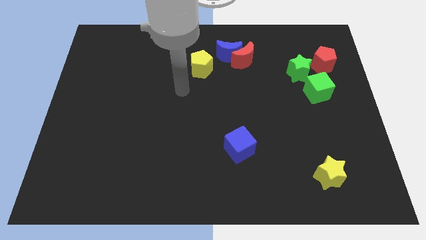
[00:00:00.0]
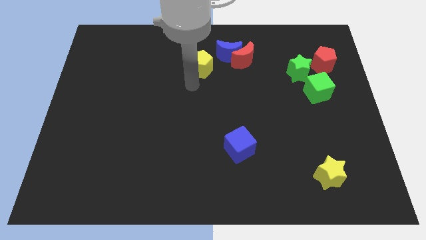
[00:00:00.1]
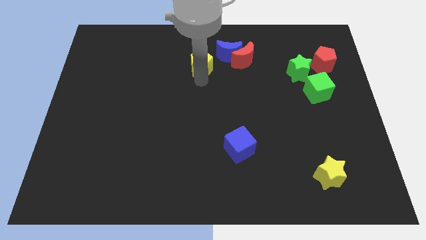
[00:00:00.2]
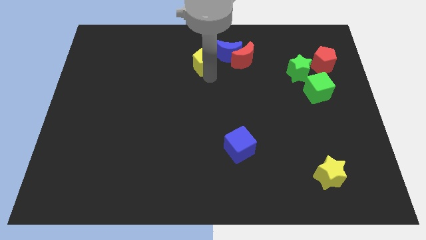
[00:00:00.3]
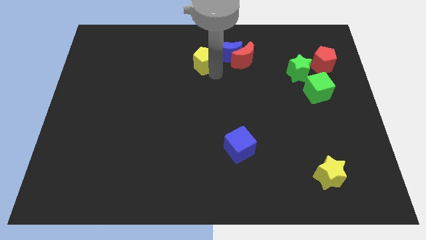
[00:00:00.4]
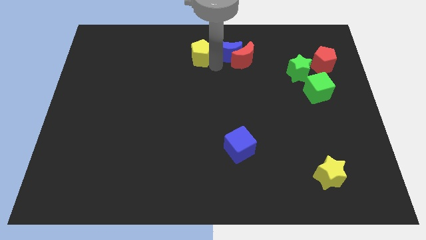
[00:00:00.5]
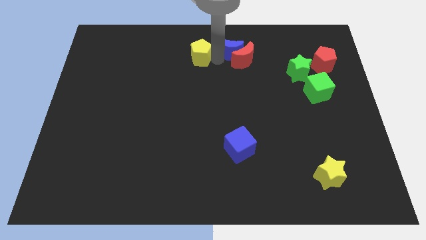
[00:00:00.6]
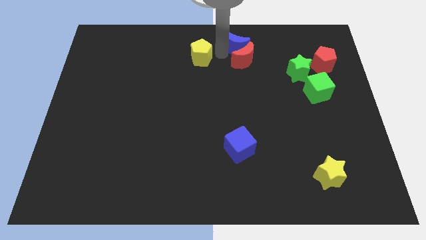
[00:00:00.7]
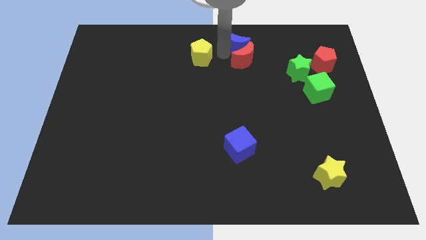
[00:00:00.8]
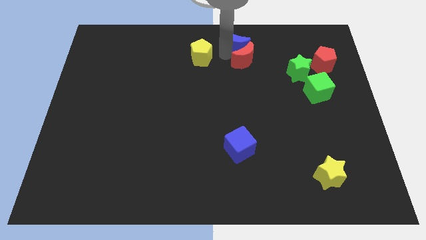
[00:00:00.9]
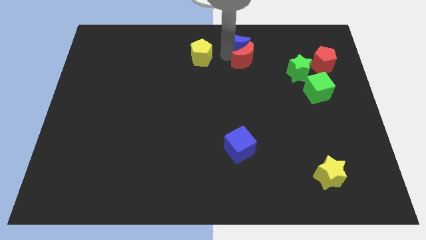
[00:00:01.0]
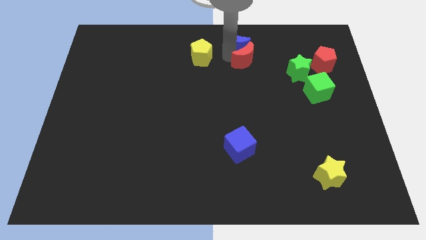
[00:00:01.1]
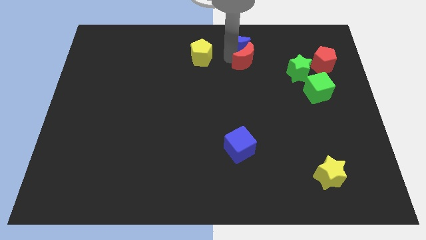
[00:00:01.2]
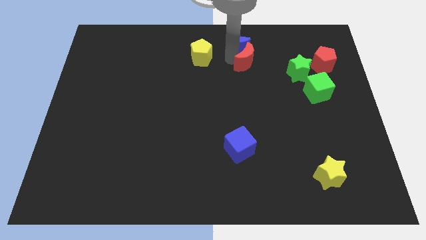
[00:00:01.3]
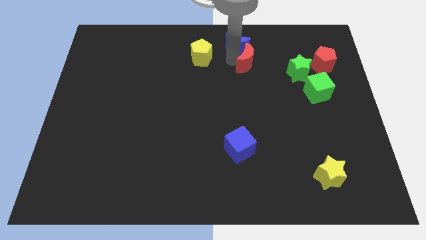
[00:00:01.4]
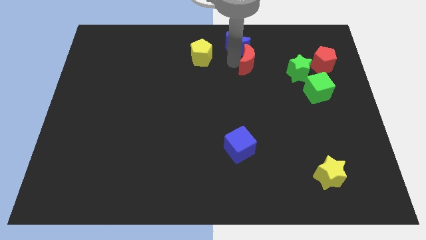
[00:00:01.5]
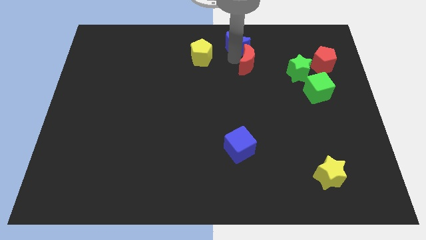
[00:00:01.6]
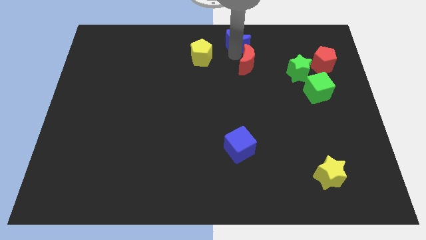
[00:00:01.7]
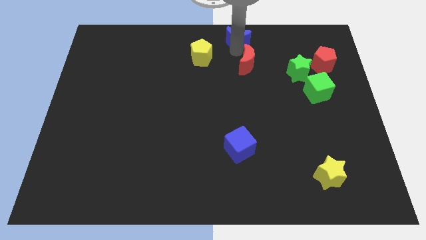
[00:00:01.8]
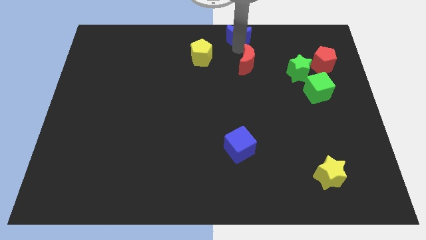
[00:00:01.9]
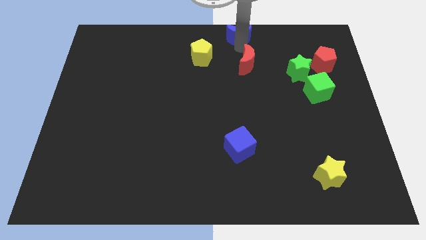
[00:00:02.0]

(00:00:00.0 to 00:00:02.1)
separate the red moon from the blue moon

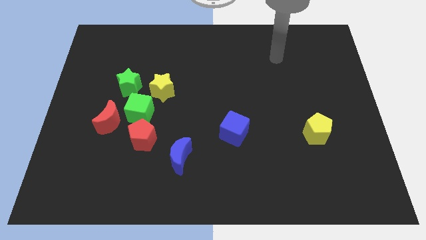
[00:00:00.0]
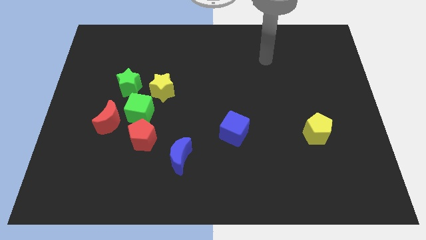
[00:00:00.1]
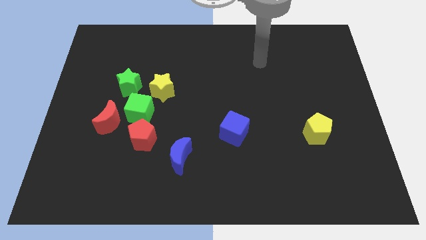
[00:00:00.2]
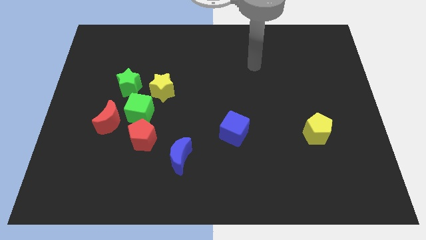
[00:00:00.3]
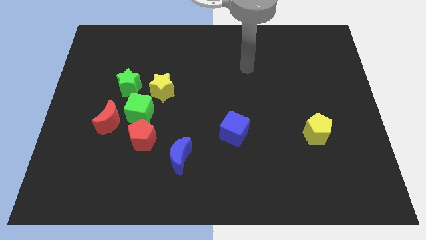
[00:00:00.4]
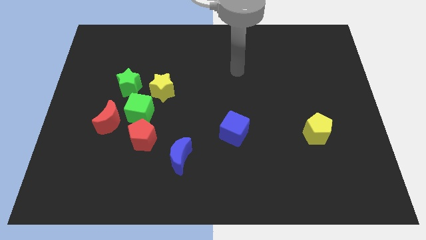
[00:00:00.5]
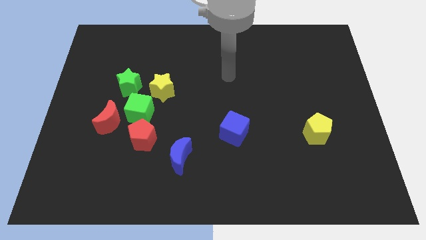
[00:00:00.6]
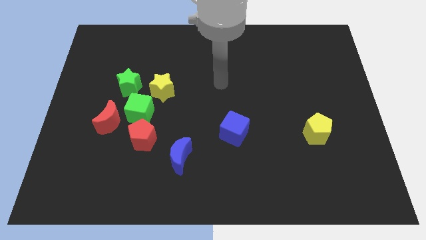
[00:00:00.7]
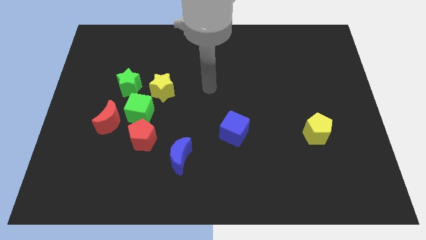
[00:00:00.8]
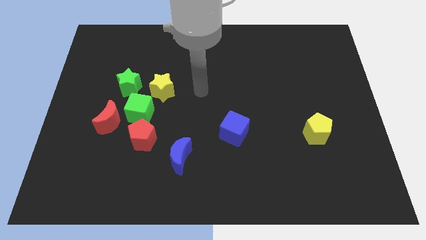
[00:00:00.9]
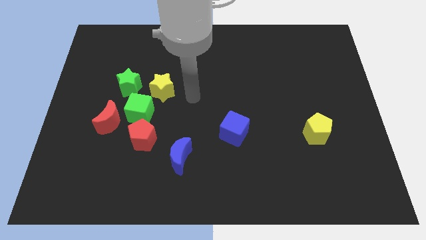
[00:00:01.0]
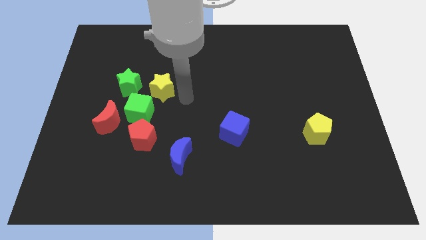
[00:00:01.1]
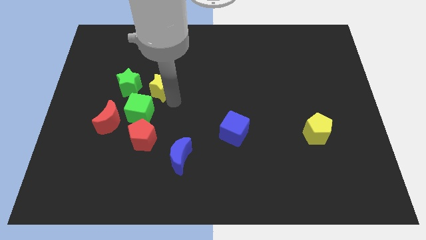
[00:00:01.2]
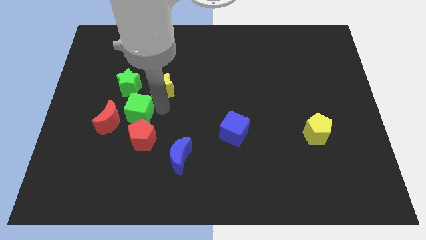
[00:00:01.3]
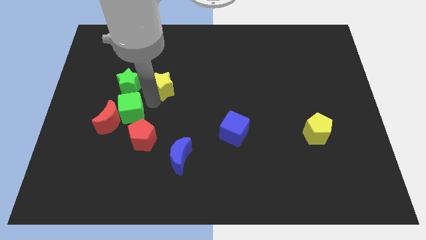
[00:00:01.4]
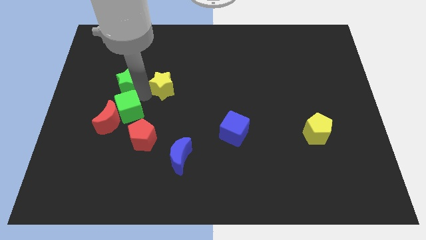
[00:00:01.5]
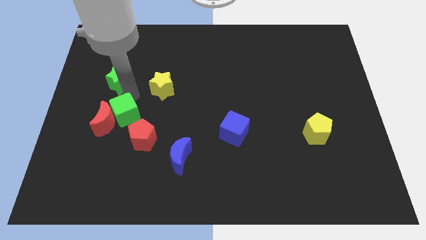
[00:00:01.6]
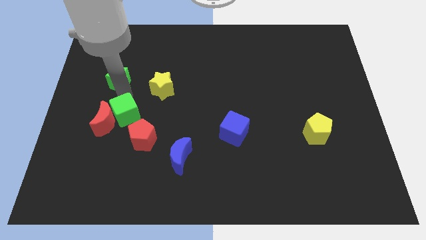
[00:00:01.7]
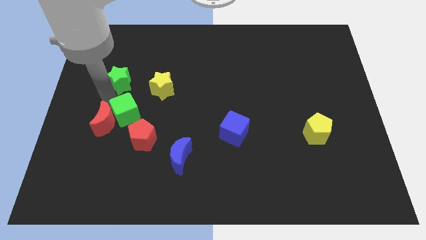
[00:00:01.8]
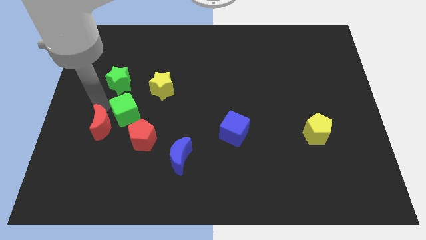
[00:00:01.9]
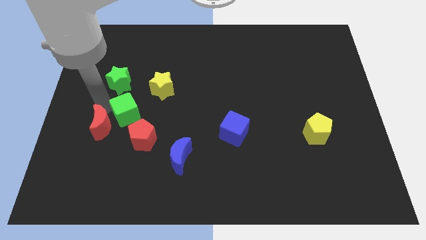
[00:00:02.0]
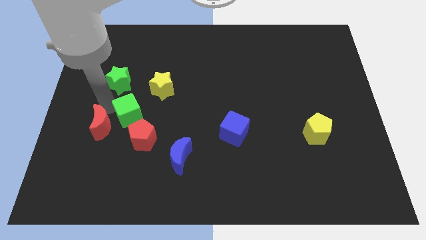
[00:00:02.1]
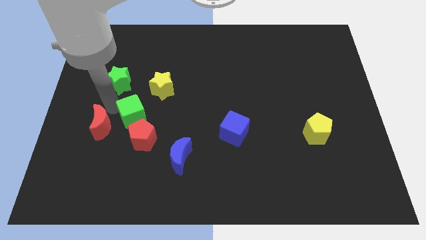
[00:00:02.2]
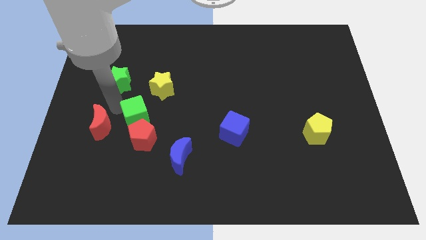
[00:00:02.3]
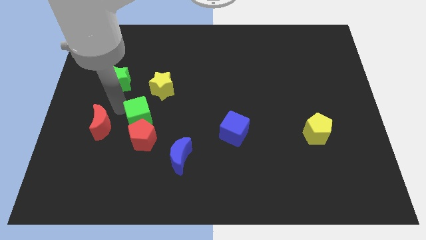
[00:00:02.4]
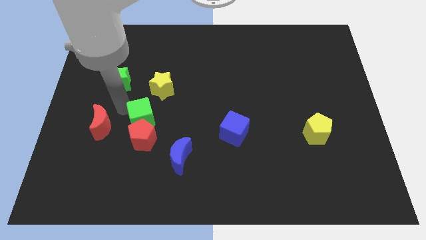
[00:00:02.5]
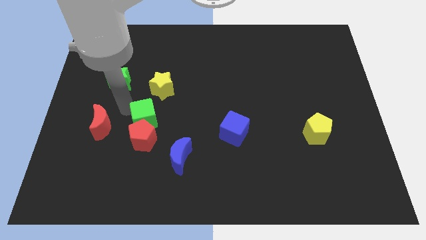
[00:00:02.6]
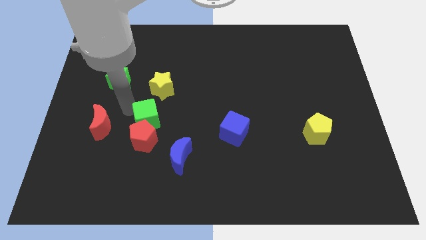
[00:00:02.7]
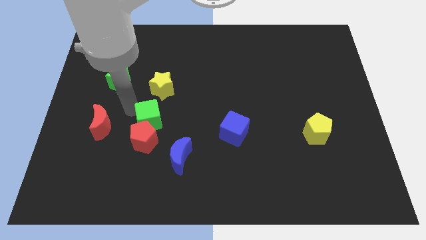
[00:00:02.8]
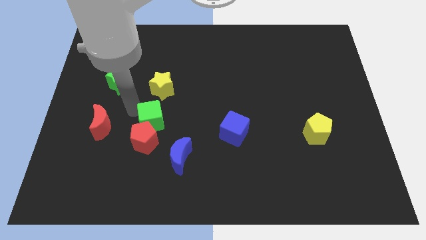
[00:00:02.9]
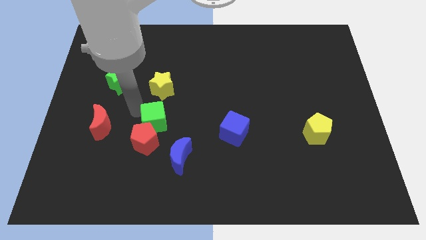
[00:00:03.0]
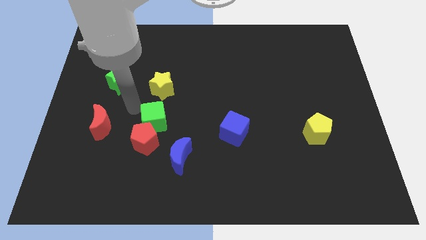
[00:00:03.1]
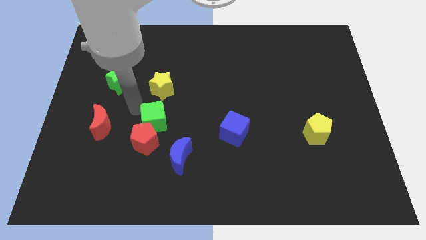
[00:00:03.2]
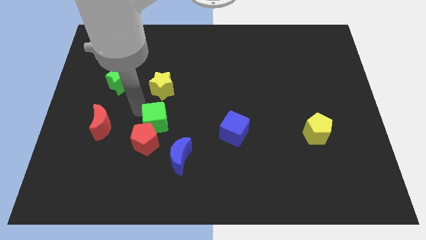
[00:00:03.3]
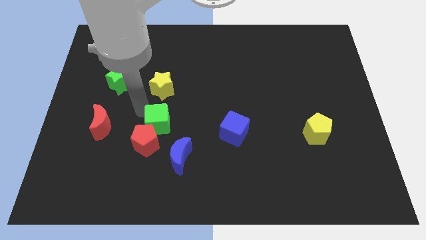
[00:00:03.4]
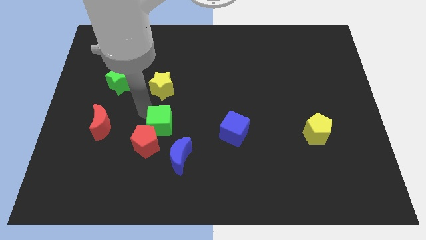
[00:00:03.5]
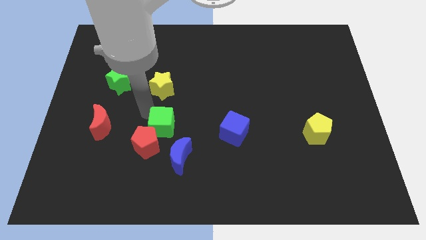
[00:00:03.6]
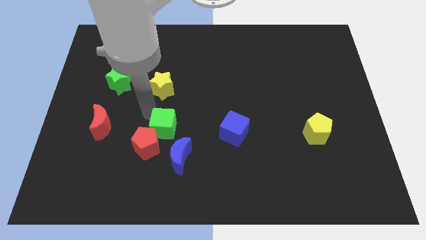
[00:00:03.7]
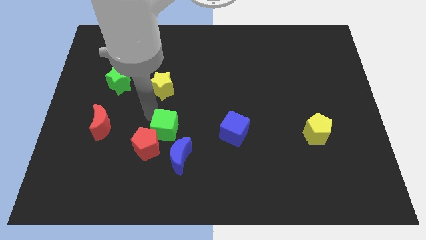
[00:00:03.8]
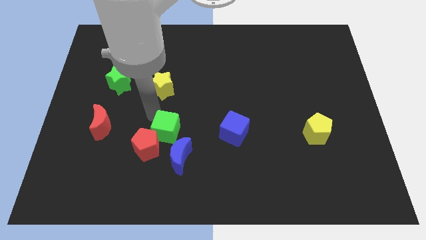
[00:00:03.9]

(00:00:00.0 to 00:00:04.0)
separate the green cube from the clump

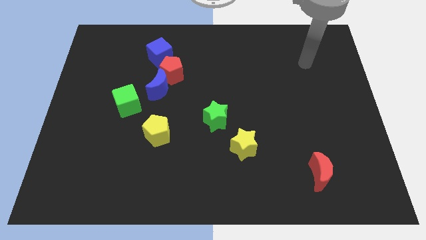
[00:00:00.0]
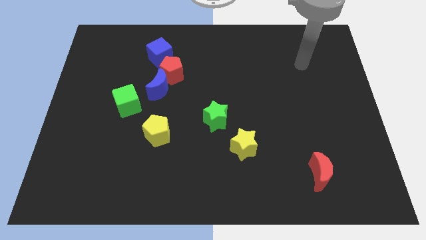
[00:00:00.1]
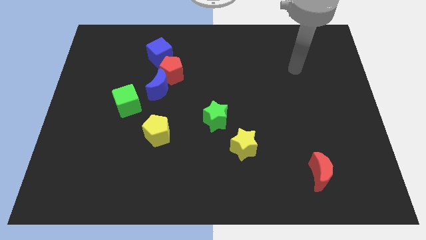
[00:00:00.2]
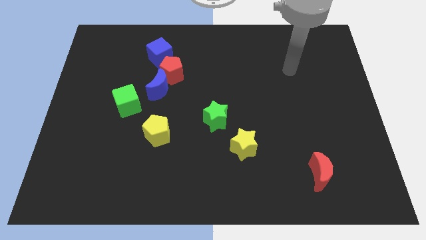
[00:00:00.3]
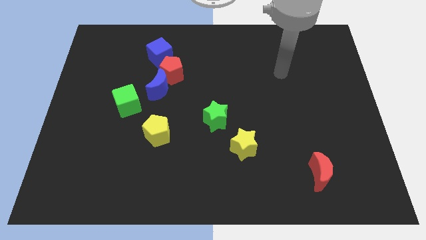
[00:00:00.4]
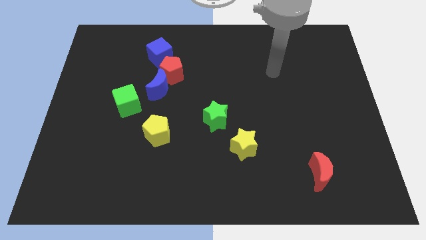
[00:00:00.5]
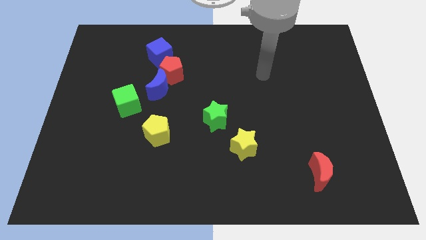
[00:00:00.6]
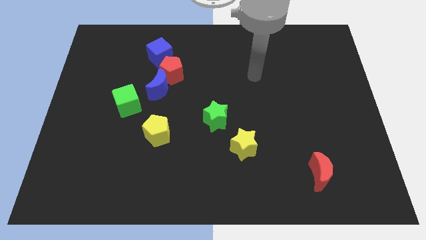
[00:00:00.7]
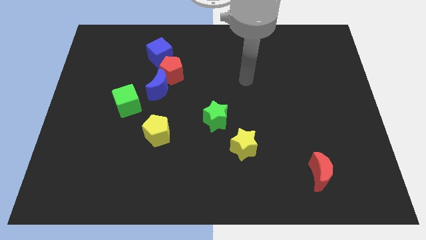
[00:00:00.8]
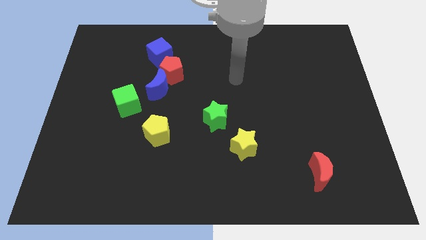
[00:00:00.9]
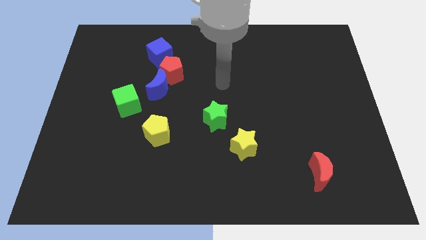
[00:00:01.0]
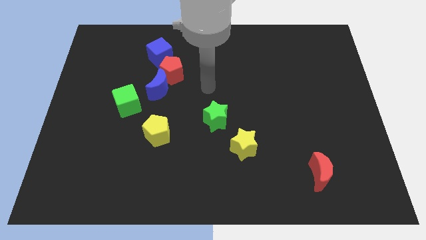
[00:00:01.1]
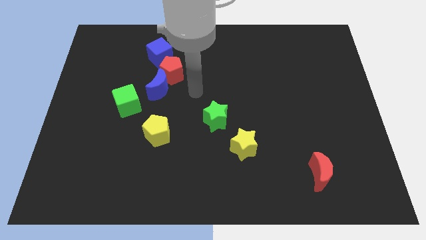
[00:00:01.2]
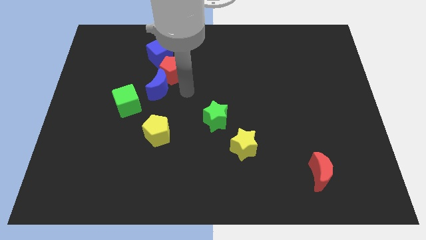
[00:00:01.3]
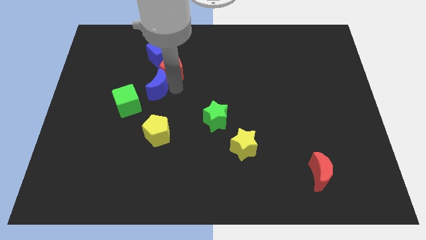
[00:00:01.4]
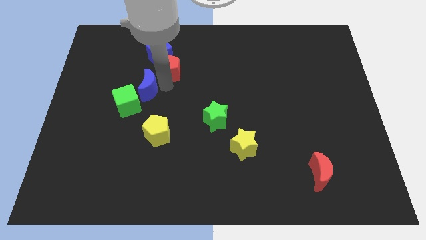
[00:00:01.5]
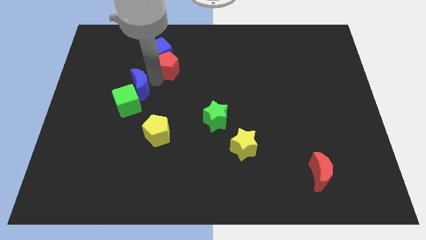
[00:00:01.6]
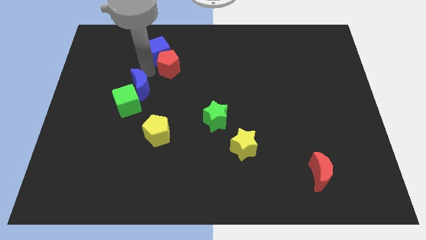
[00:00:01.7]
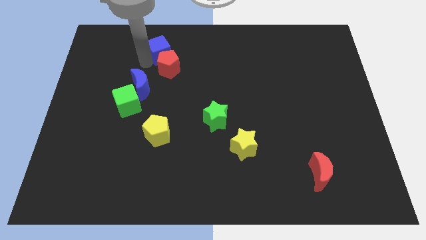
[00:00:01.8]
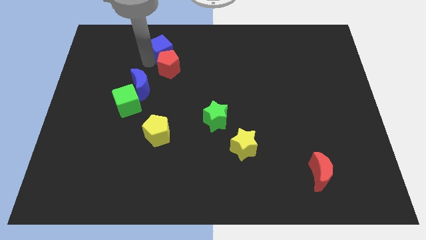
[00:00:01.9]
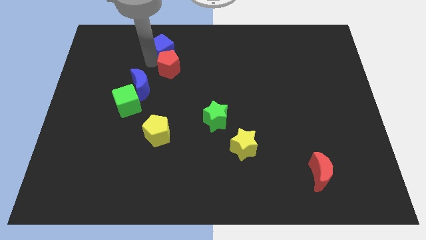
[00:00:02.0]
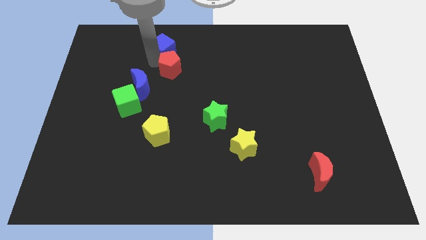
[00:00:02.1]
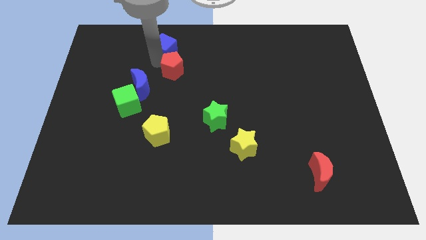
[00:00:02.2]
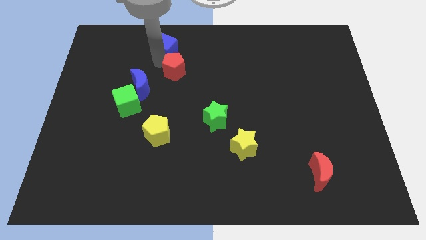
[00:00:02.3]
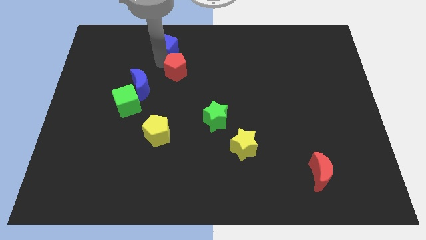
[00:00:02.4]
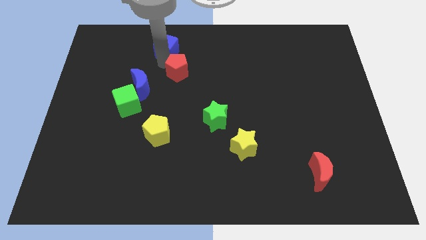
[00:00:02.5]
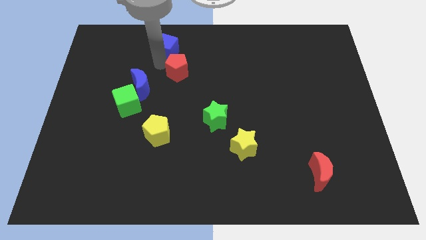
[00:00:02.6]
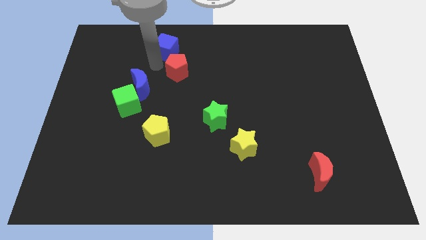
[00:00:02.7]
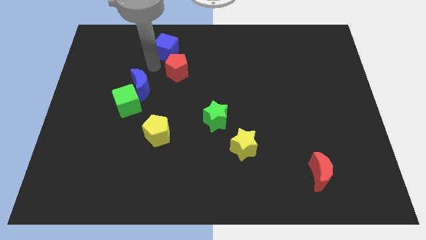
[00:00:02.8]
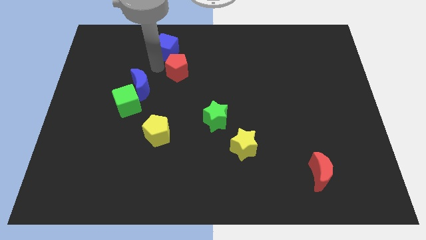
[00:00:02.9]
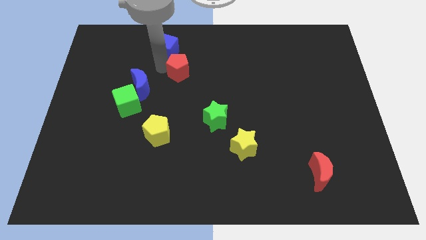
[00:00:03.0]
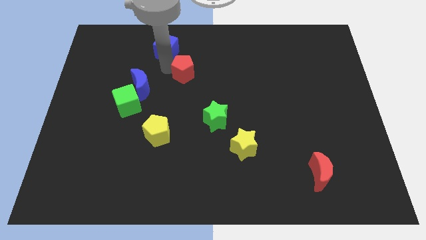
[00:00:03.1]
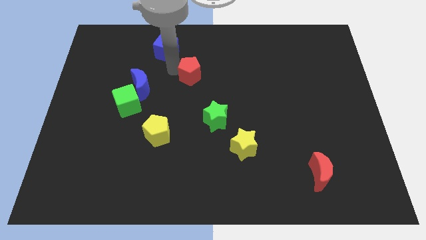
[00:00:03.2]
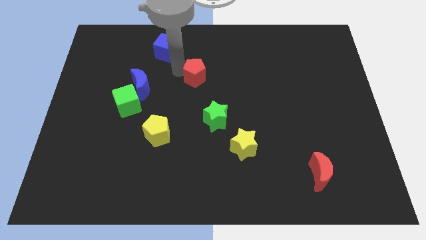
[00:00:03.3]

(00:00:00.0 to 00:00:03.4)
move the red pentagon away from the blue moon and blue cube
